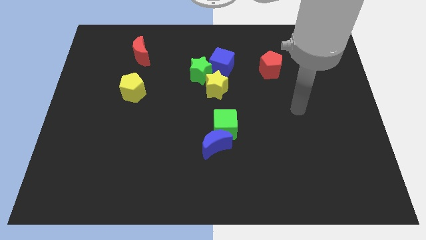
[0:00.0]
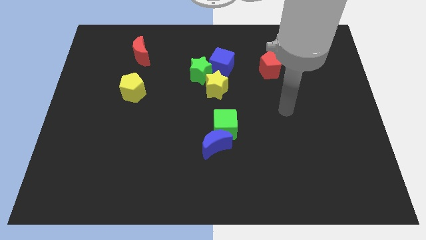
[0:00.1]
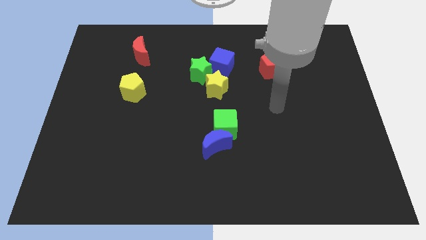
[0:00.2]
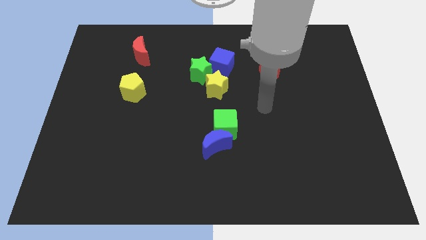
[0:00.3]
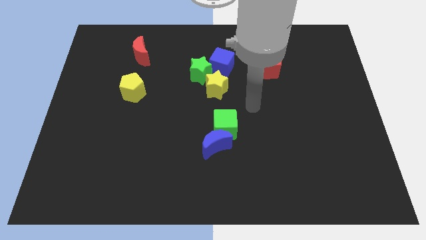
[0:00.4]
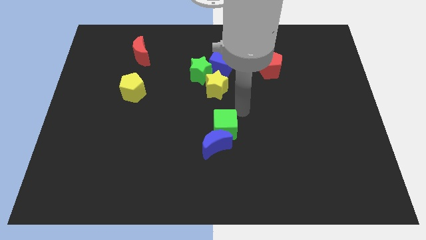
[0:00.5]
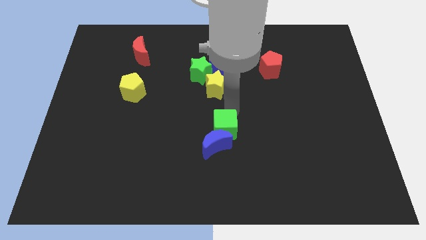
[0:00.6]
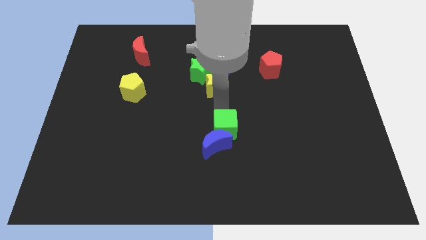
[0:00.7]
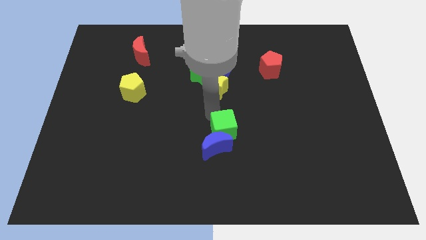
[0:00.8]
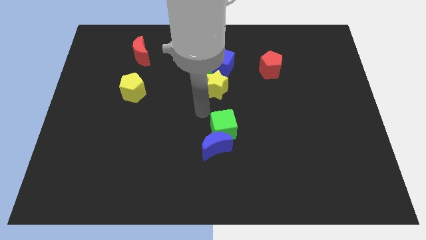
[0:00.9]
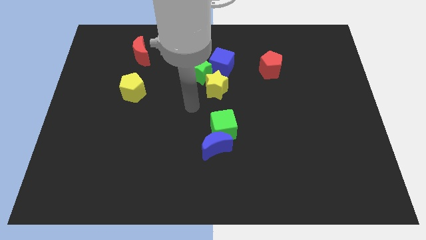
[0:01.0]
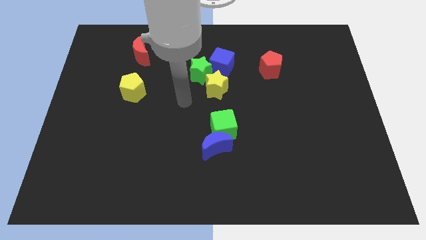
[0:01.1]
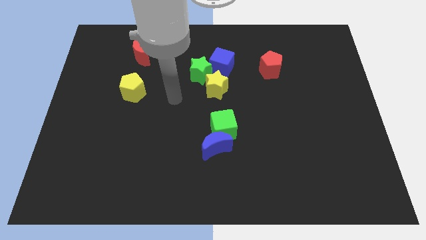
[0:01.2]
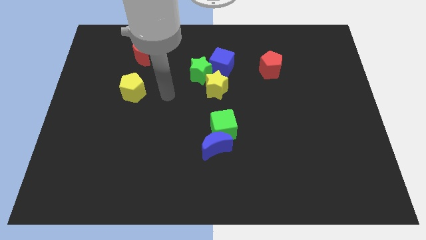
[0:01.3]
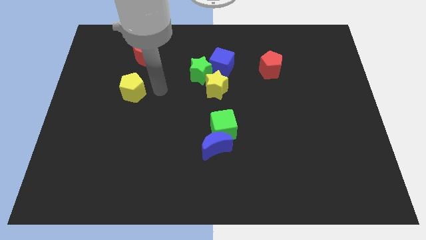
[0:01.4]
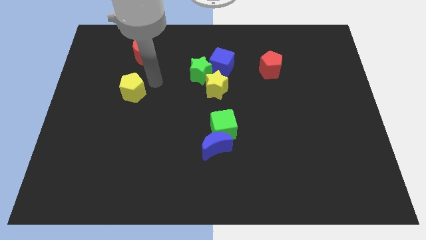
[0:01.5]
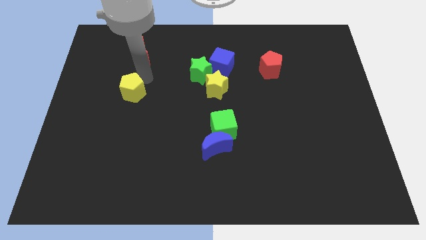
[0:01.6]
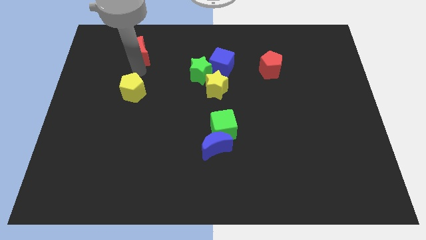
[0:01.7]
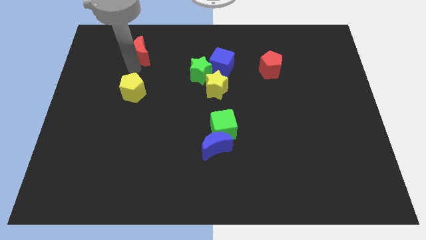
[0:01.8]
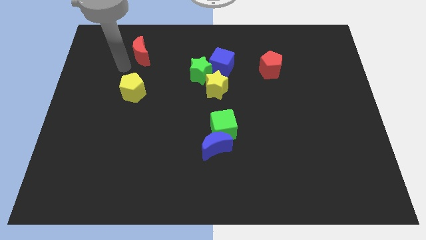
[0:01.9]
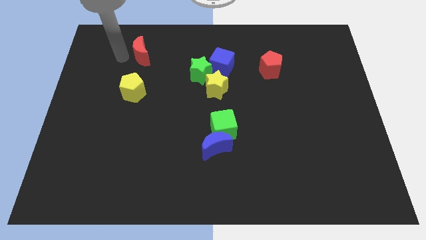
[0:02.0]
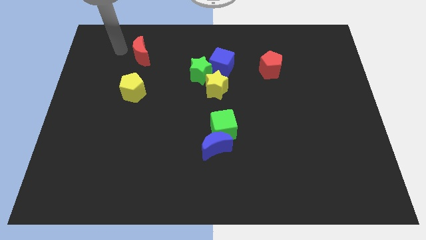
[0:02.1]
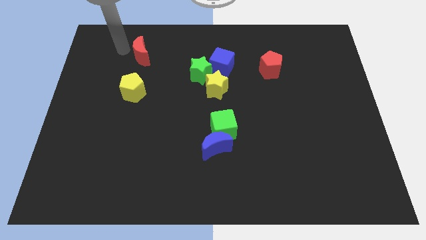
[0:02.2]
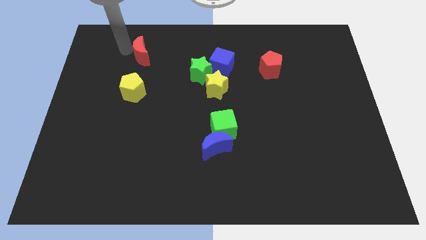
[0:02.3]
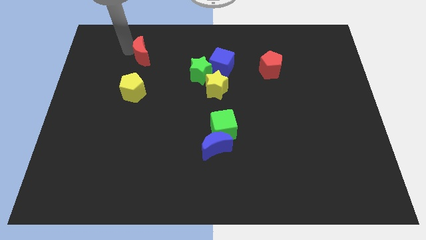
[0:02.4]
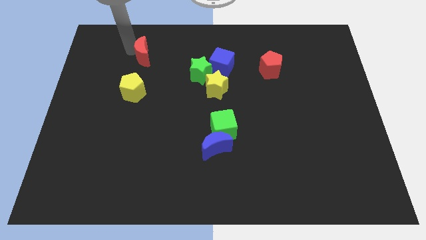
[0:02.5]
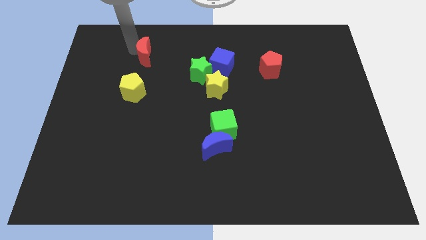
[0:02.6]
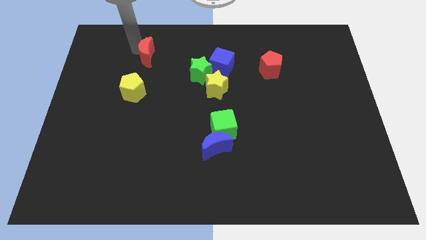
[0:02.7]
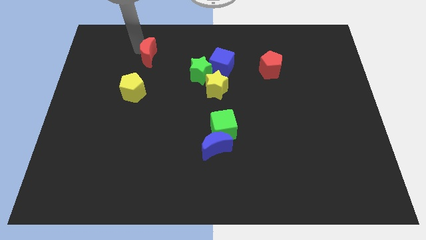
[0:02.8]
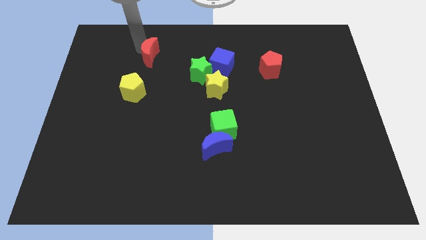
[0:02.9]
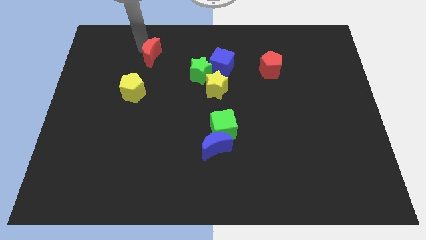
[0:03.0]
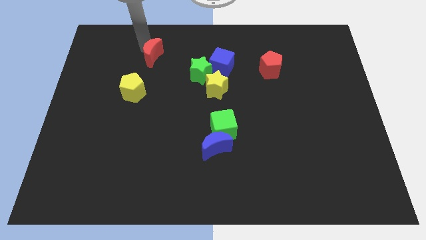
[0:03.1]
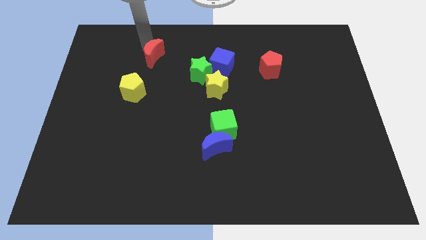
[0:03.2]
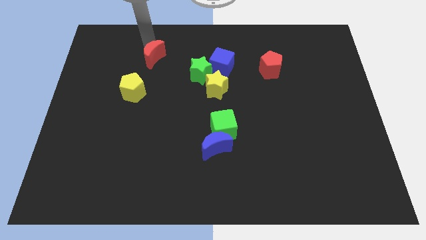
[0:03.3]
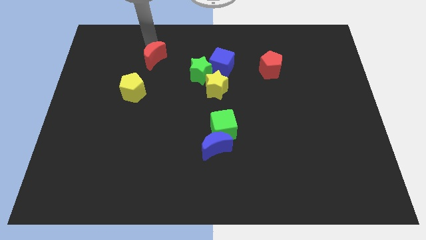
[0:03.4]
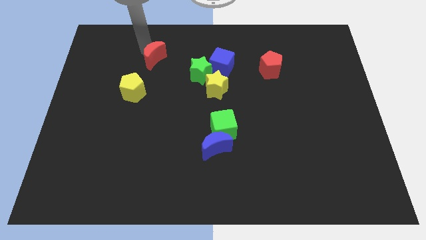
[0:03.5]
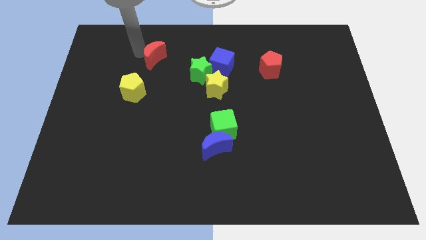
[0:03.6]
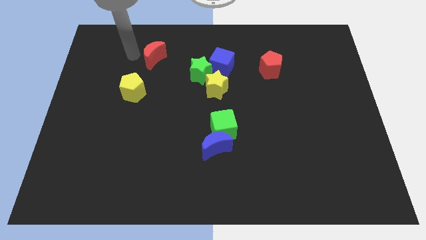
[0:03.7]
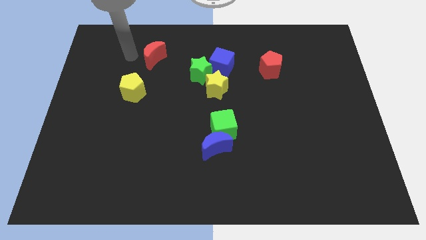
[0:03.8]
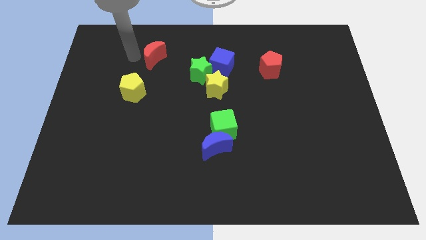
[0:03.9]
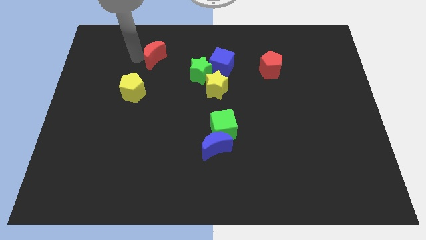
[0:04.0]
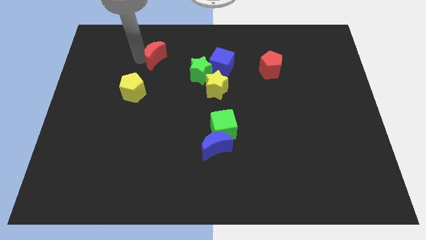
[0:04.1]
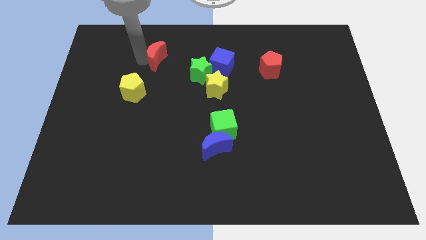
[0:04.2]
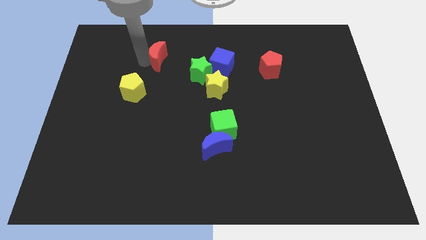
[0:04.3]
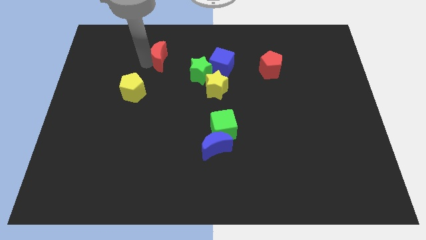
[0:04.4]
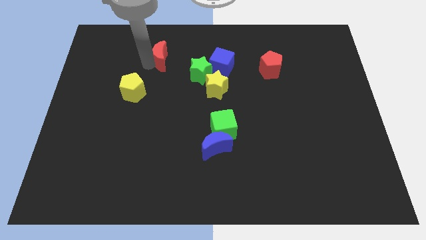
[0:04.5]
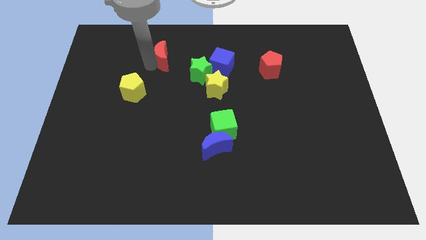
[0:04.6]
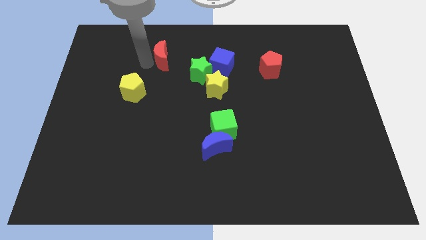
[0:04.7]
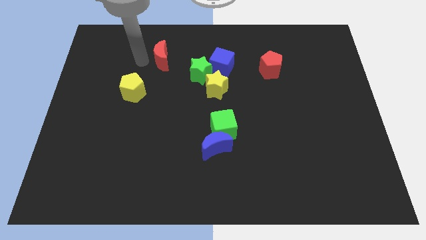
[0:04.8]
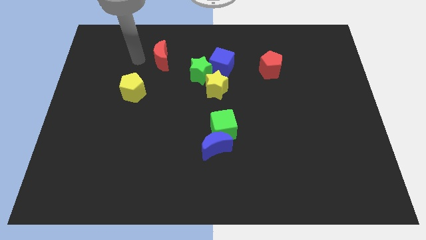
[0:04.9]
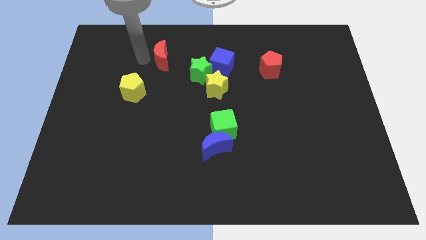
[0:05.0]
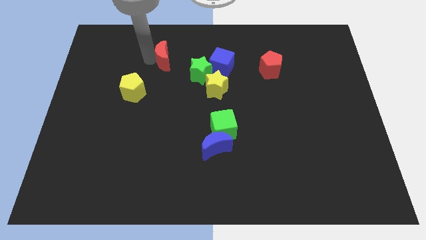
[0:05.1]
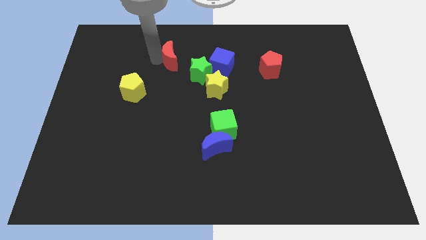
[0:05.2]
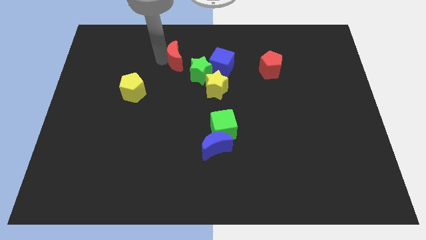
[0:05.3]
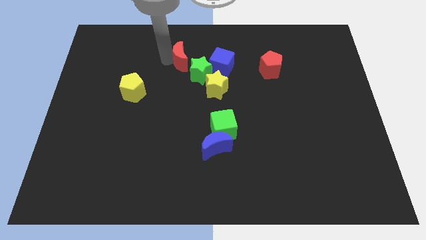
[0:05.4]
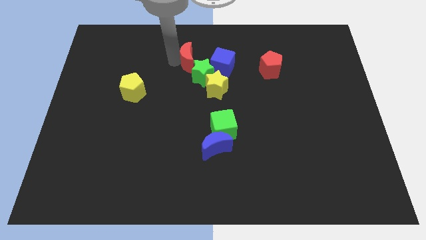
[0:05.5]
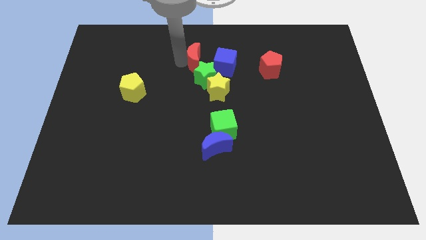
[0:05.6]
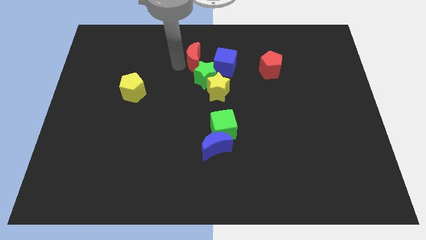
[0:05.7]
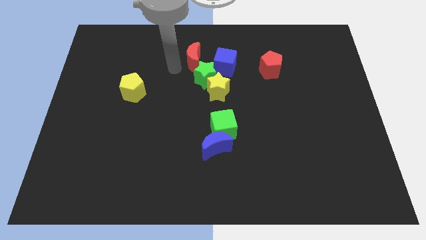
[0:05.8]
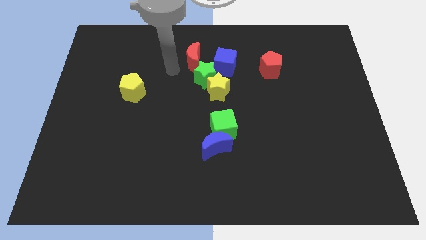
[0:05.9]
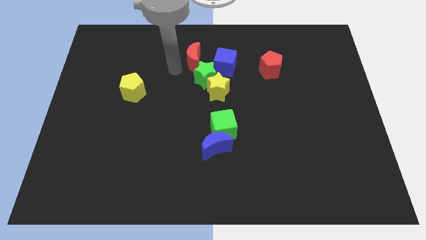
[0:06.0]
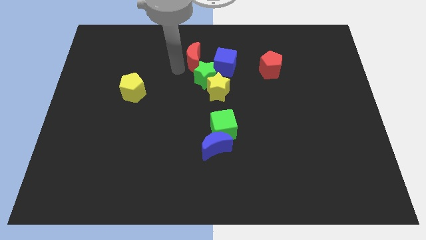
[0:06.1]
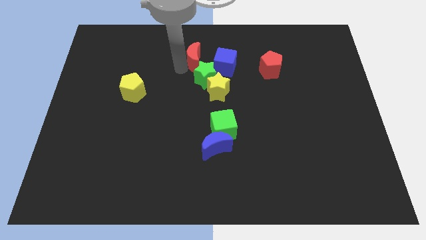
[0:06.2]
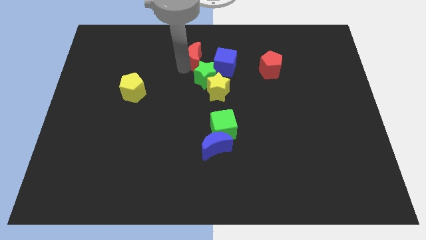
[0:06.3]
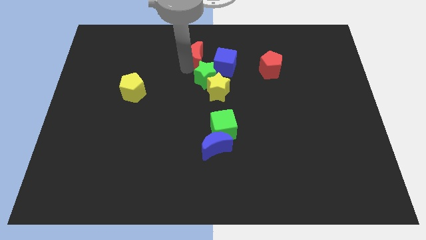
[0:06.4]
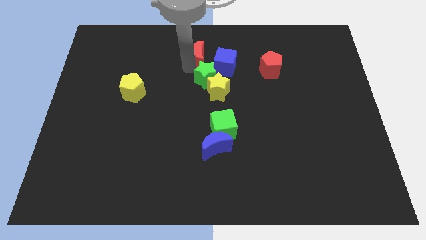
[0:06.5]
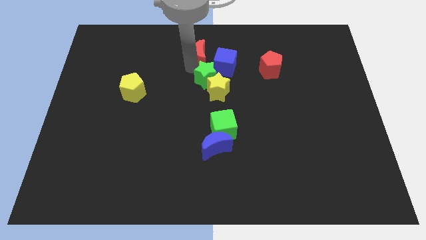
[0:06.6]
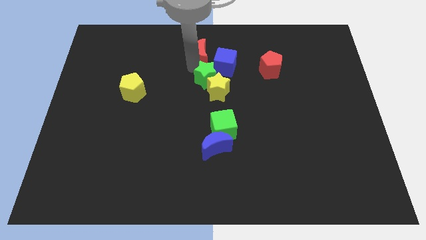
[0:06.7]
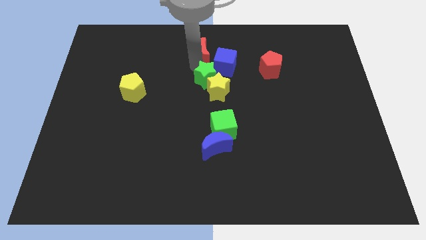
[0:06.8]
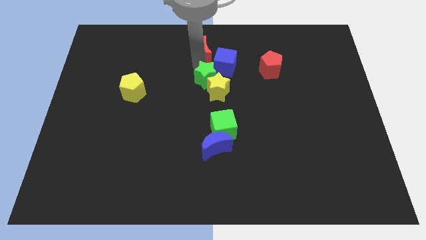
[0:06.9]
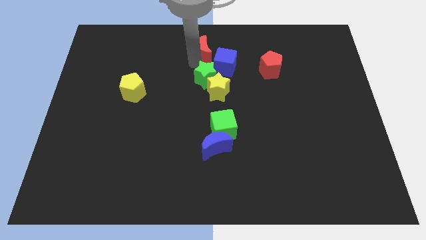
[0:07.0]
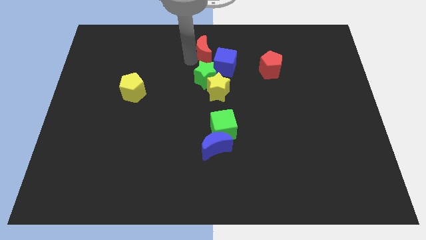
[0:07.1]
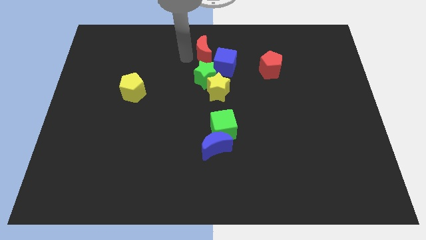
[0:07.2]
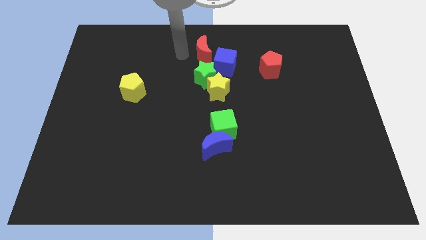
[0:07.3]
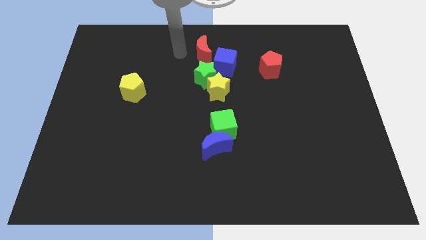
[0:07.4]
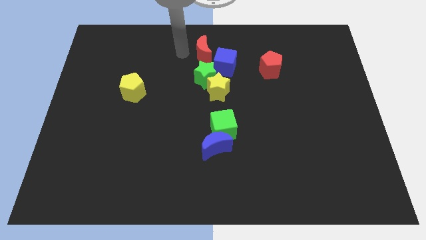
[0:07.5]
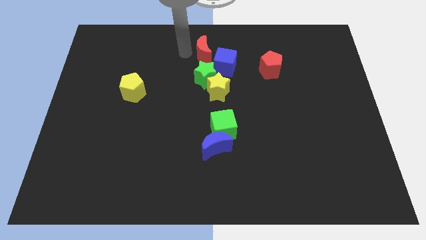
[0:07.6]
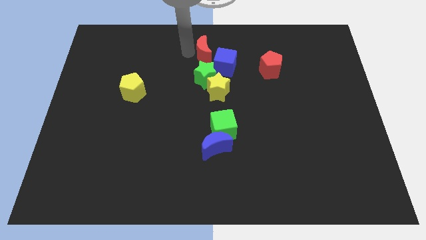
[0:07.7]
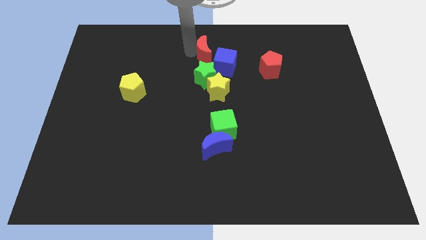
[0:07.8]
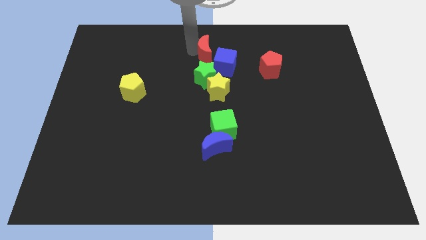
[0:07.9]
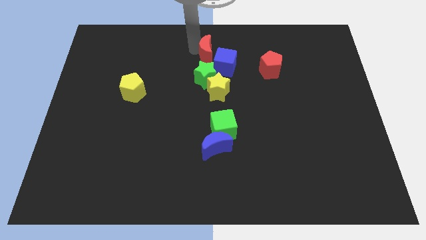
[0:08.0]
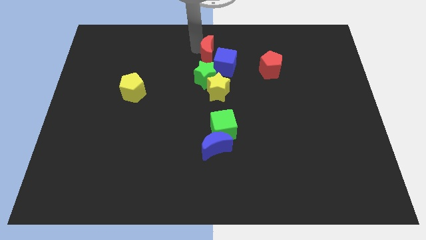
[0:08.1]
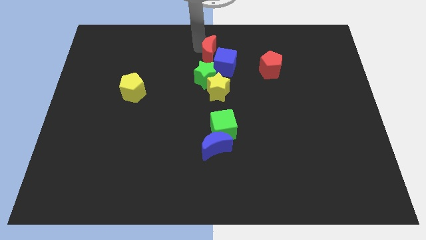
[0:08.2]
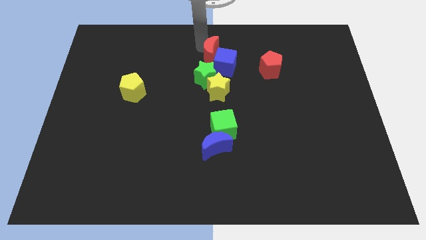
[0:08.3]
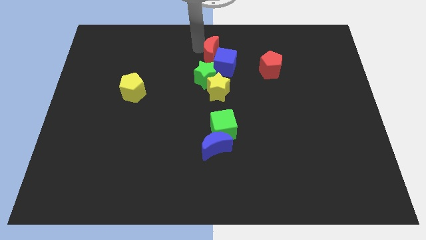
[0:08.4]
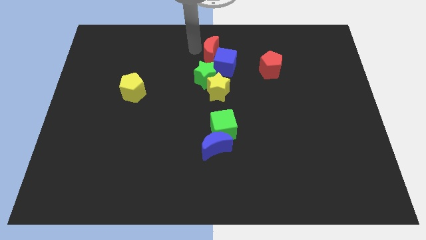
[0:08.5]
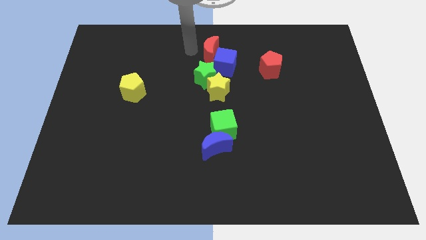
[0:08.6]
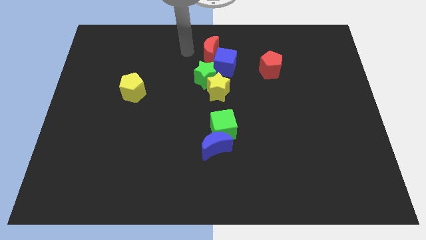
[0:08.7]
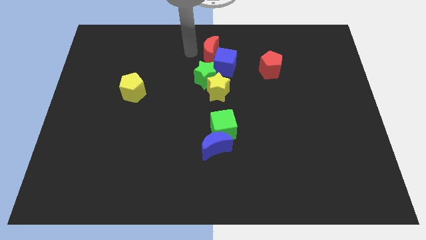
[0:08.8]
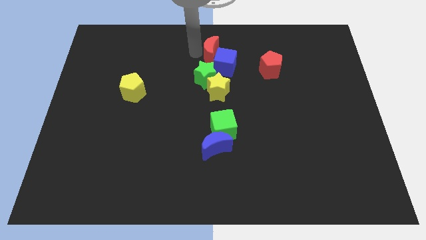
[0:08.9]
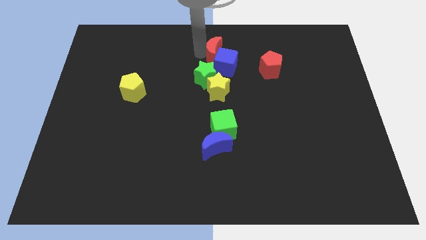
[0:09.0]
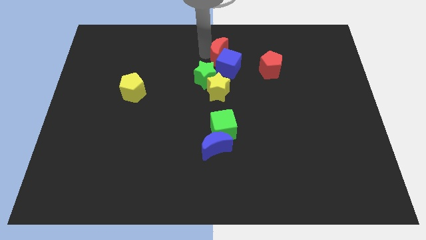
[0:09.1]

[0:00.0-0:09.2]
move the red moon to the right
